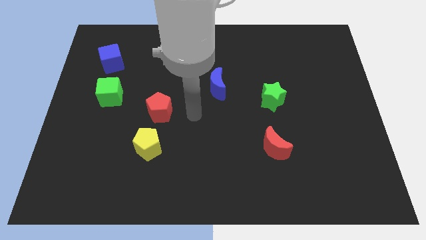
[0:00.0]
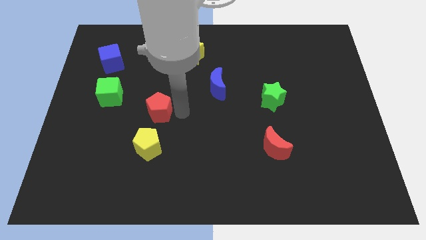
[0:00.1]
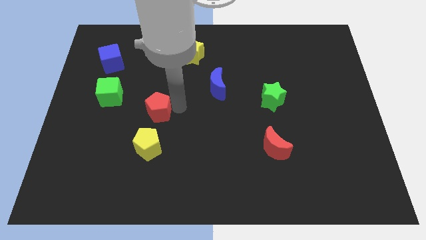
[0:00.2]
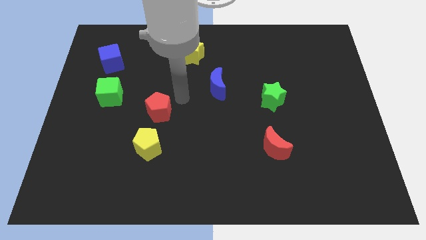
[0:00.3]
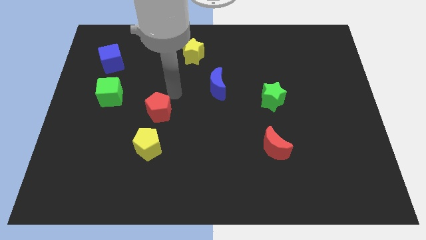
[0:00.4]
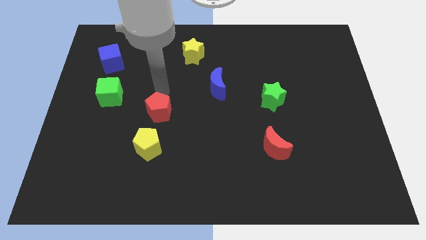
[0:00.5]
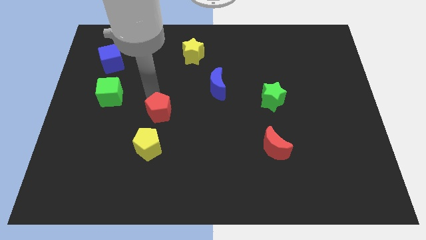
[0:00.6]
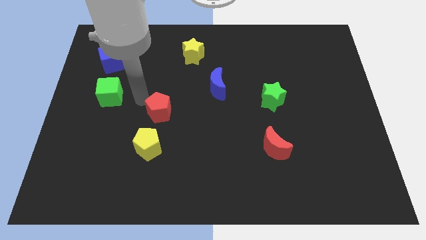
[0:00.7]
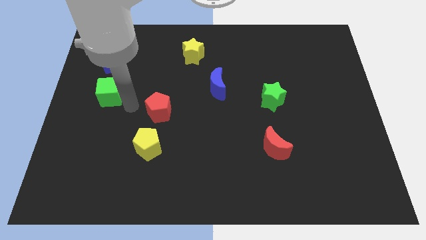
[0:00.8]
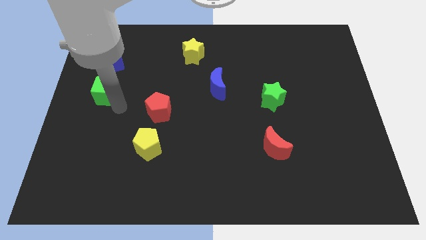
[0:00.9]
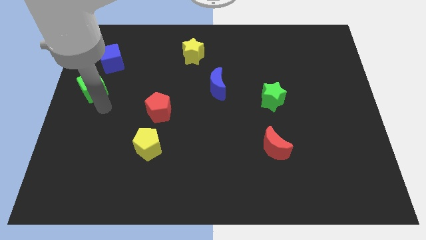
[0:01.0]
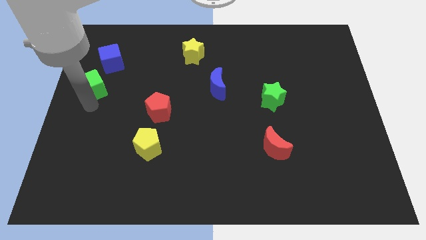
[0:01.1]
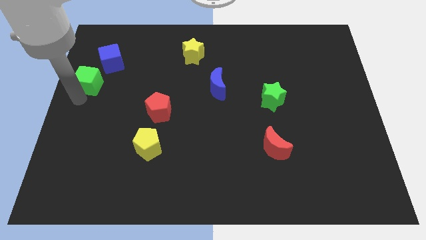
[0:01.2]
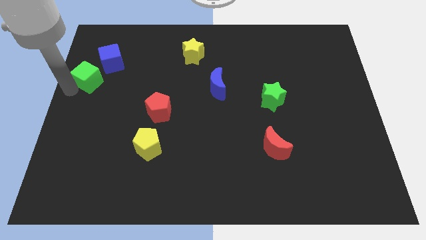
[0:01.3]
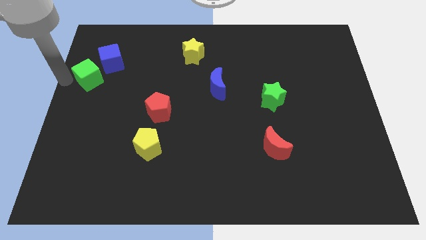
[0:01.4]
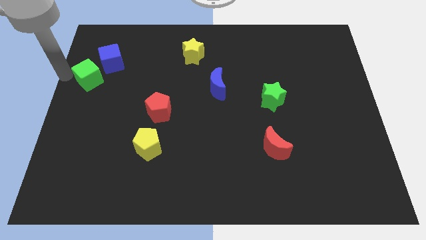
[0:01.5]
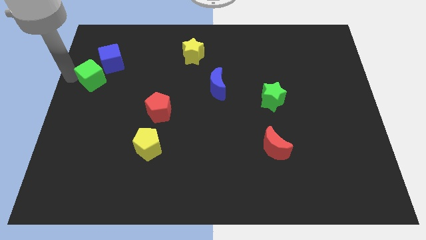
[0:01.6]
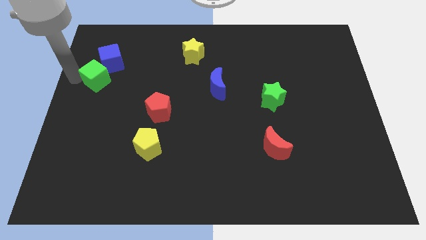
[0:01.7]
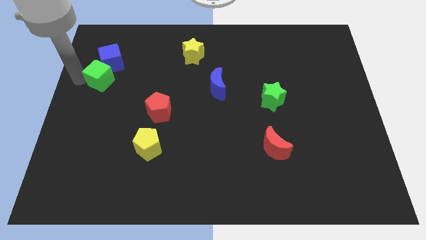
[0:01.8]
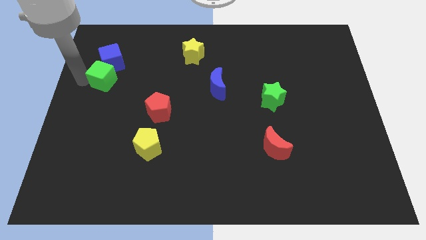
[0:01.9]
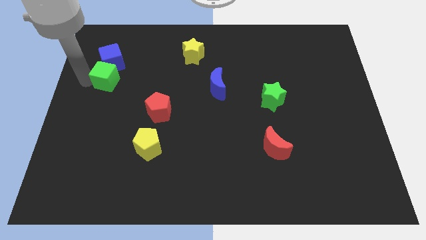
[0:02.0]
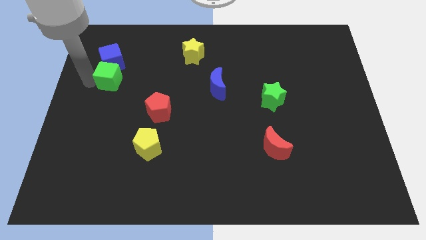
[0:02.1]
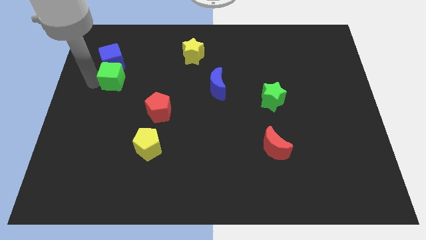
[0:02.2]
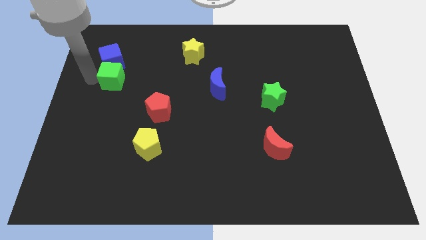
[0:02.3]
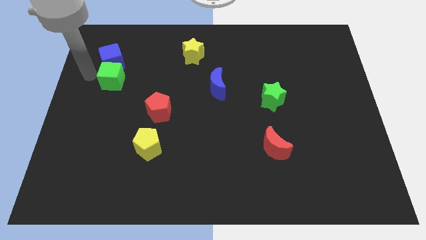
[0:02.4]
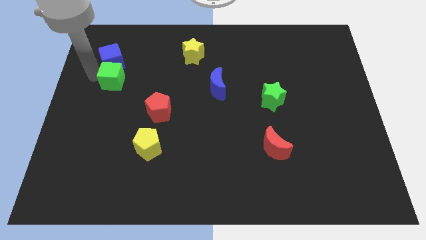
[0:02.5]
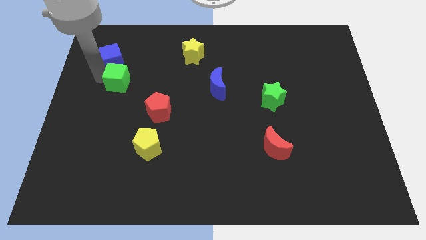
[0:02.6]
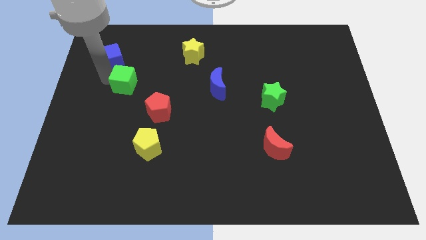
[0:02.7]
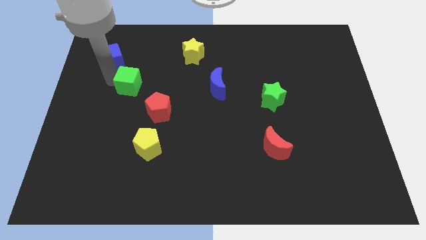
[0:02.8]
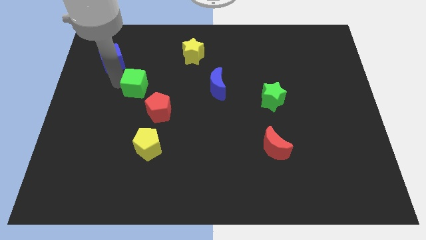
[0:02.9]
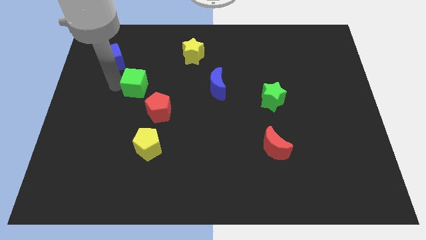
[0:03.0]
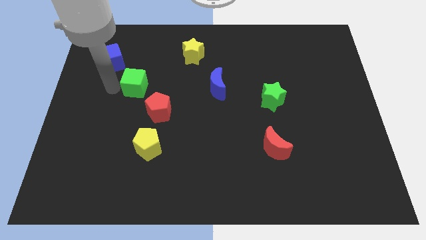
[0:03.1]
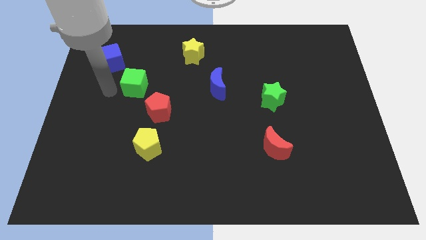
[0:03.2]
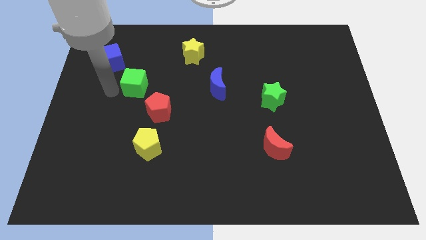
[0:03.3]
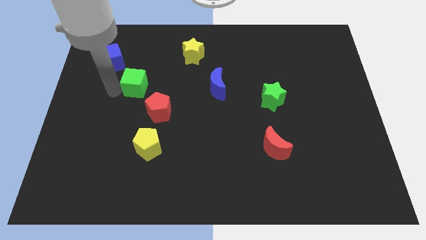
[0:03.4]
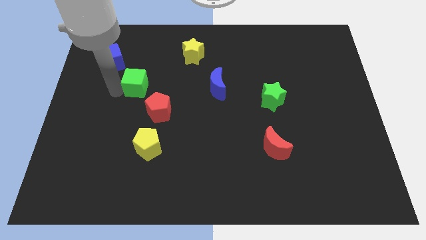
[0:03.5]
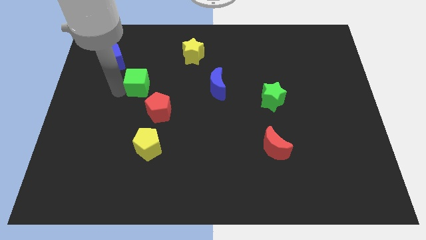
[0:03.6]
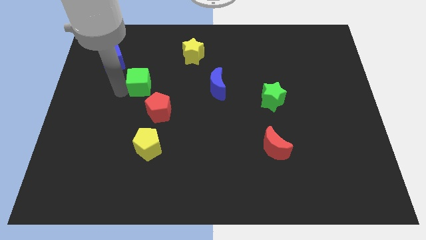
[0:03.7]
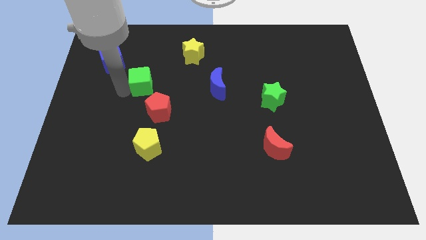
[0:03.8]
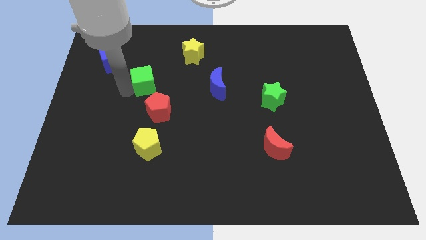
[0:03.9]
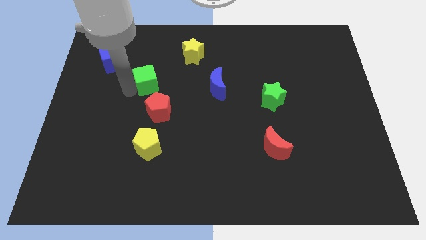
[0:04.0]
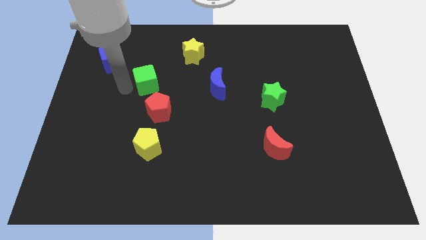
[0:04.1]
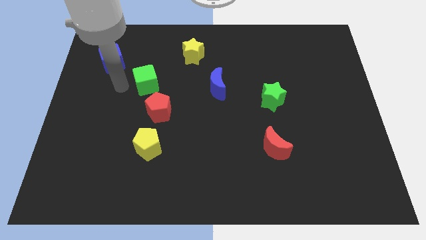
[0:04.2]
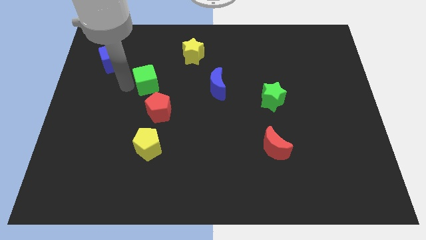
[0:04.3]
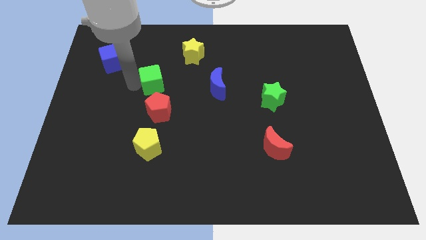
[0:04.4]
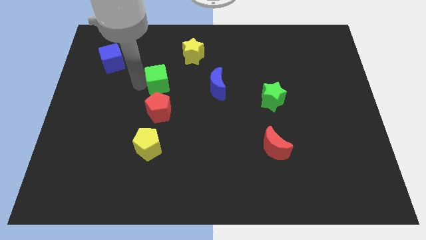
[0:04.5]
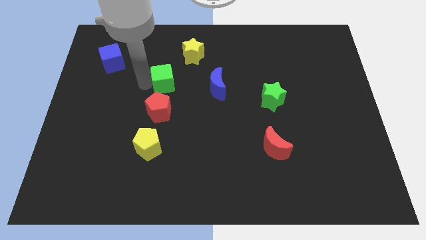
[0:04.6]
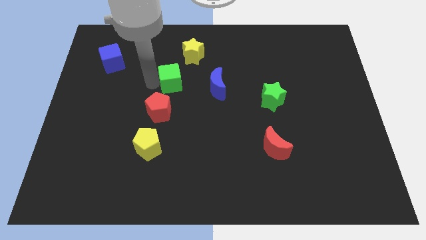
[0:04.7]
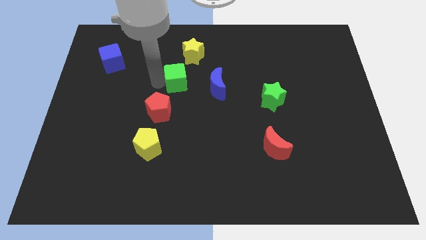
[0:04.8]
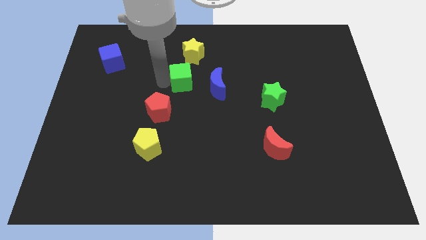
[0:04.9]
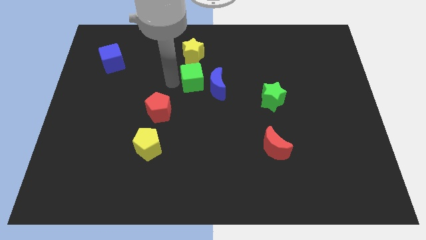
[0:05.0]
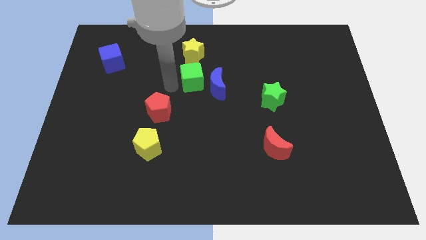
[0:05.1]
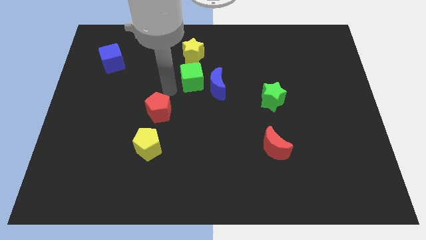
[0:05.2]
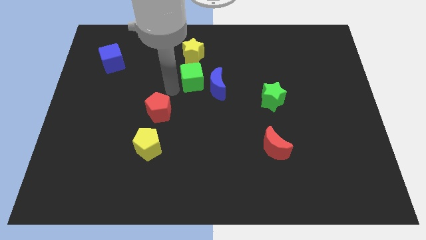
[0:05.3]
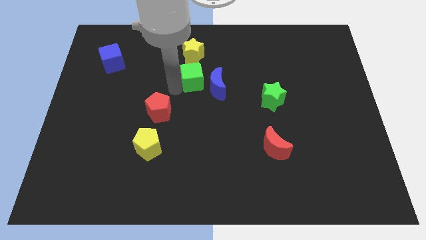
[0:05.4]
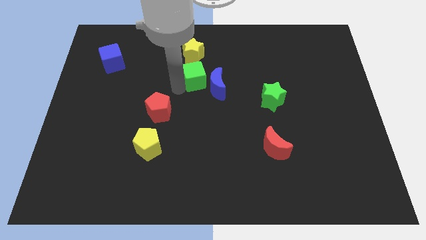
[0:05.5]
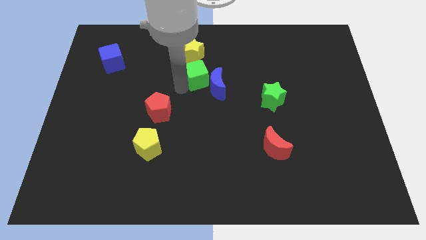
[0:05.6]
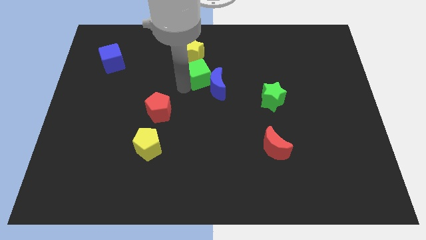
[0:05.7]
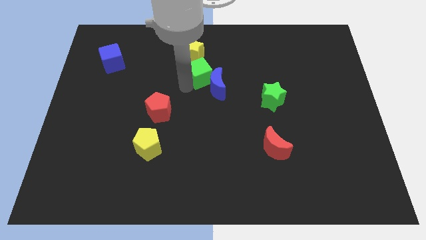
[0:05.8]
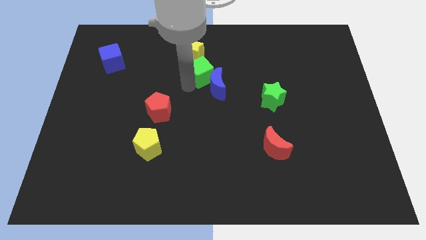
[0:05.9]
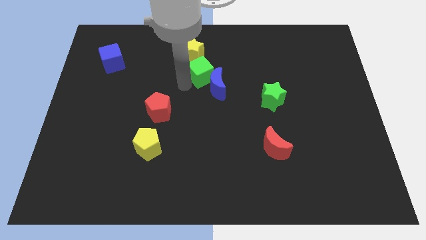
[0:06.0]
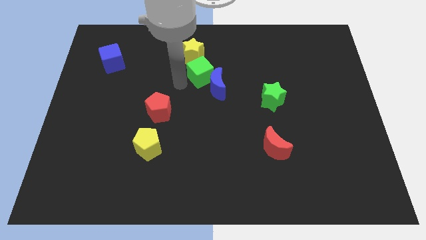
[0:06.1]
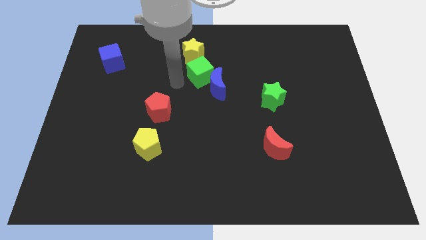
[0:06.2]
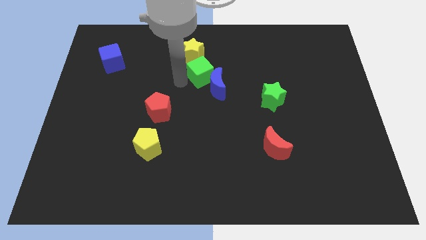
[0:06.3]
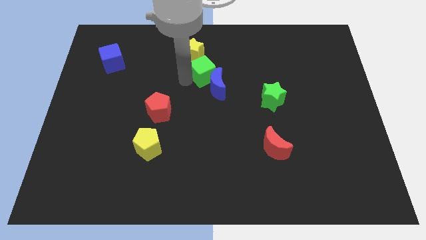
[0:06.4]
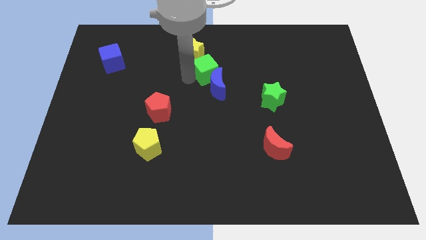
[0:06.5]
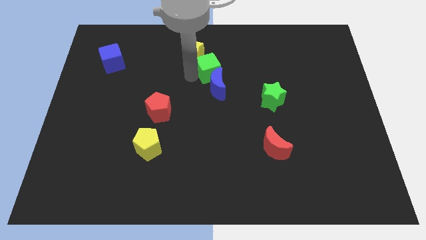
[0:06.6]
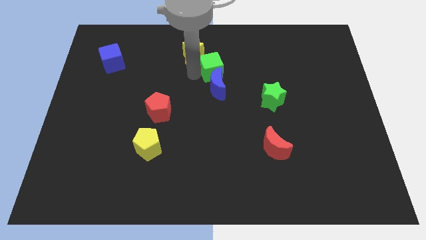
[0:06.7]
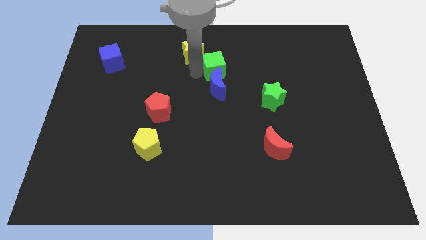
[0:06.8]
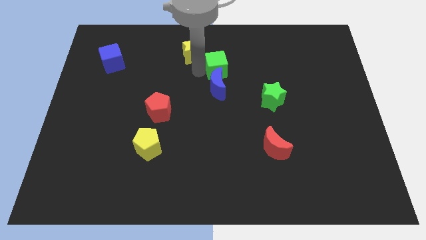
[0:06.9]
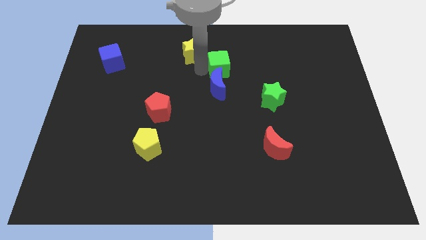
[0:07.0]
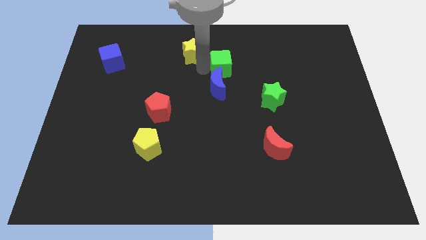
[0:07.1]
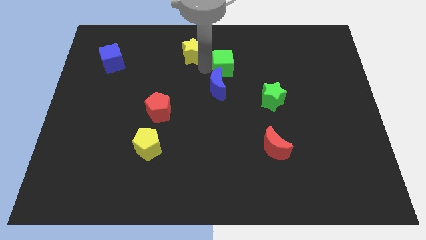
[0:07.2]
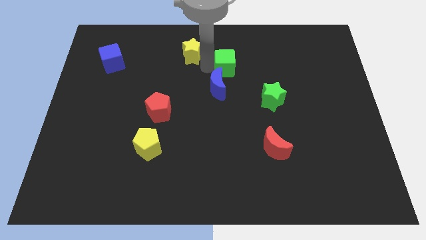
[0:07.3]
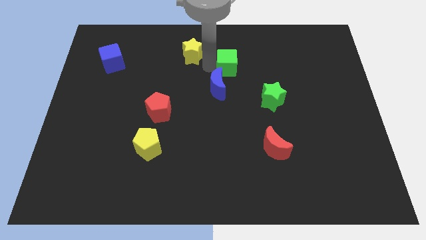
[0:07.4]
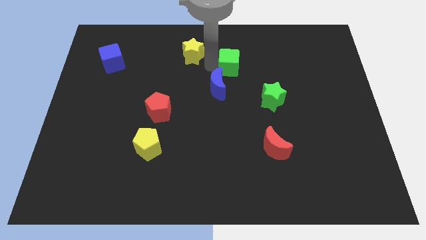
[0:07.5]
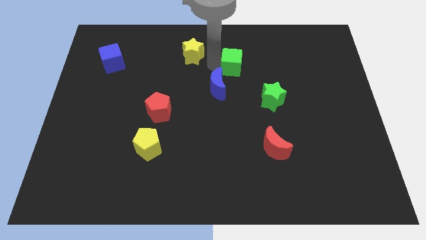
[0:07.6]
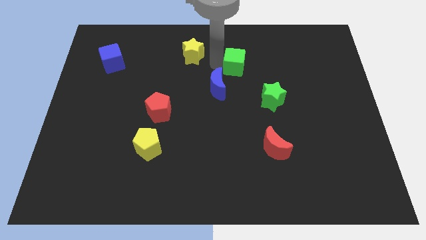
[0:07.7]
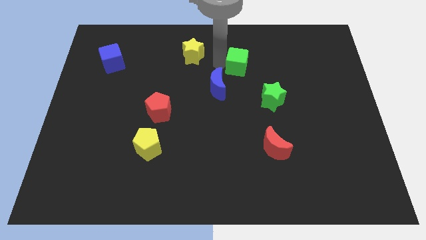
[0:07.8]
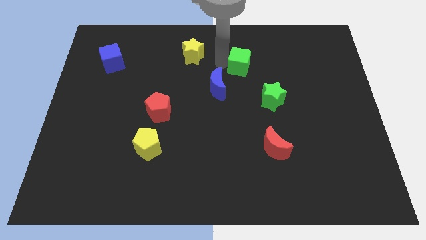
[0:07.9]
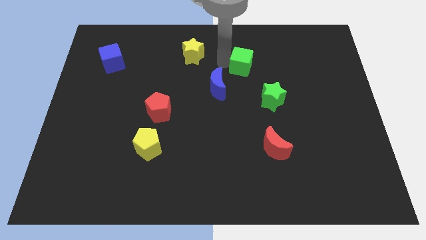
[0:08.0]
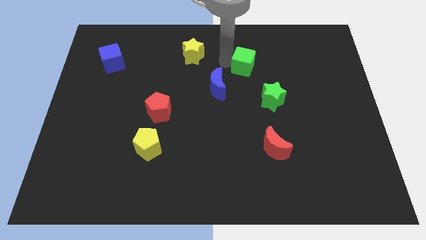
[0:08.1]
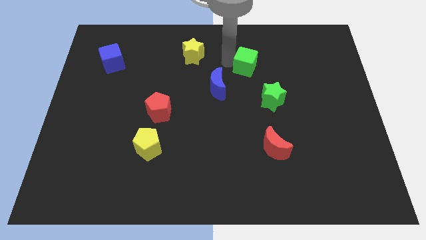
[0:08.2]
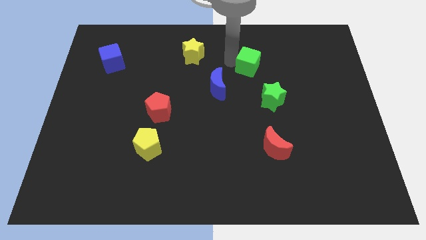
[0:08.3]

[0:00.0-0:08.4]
slide the green cube to the top side of the green star
